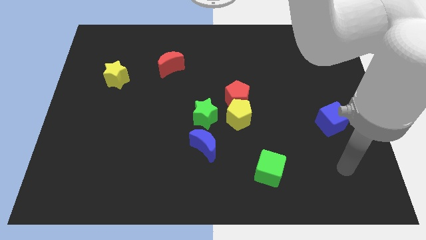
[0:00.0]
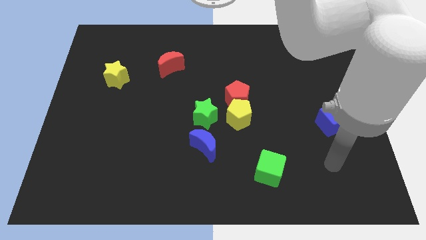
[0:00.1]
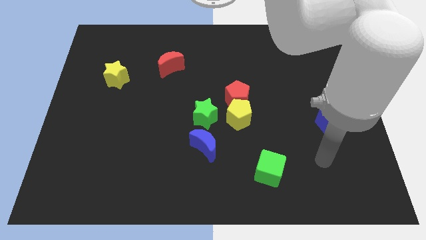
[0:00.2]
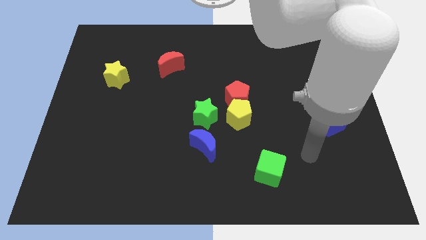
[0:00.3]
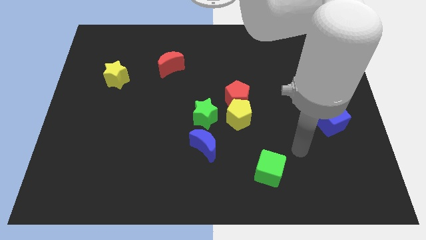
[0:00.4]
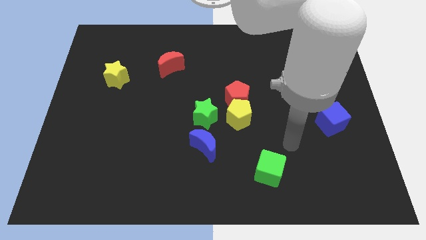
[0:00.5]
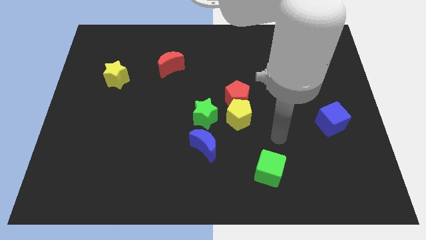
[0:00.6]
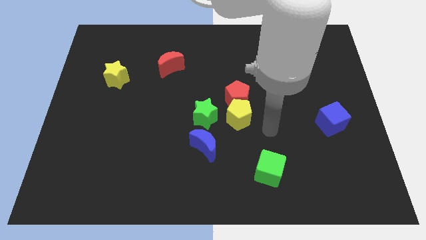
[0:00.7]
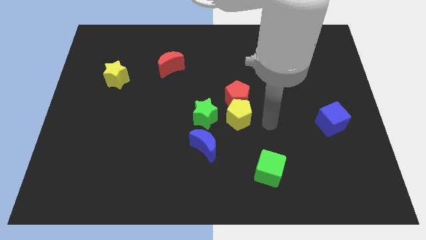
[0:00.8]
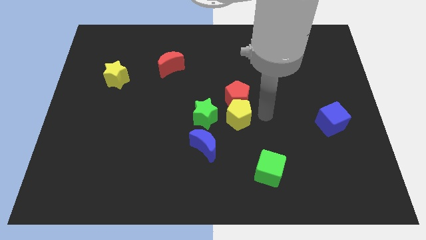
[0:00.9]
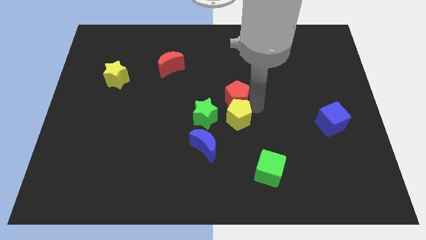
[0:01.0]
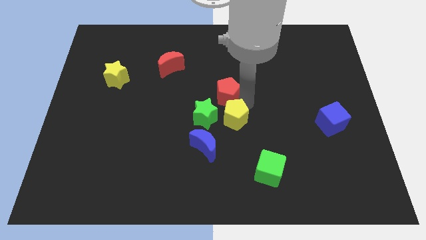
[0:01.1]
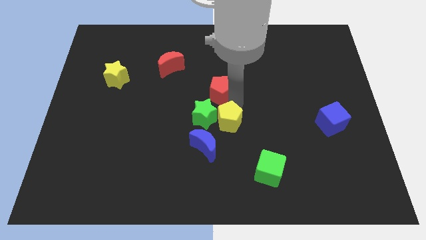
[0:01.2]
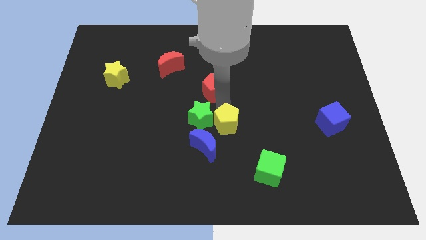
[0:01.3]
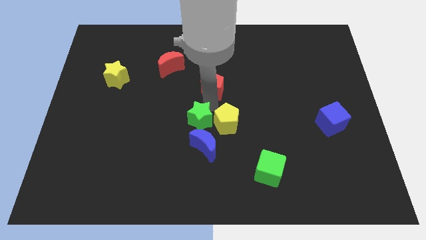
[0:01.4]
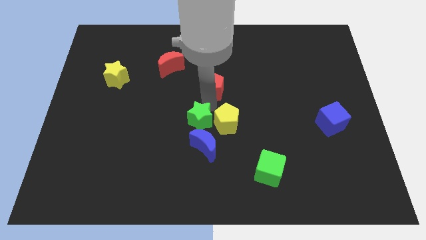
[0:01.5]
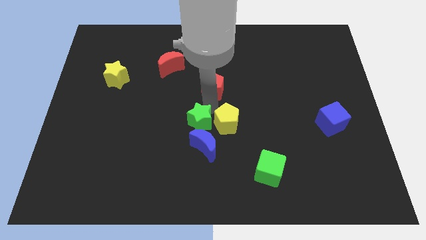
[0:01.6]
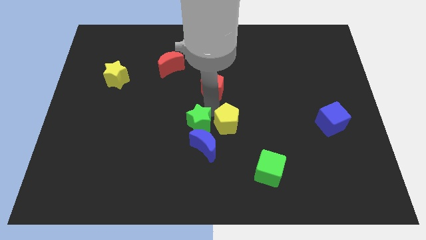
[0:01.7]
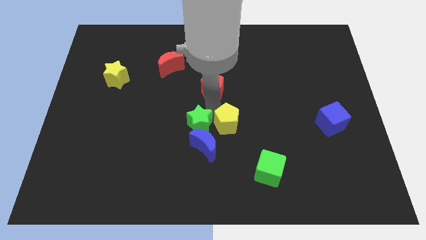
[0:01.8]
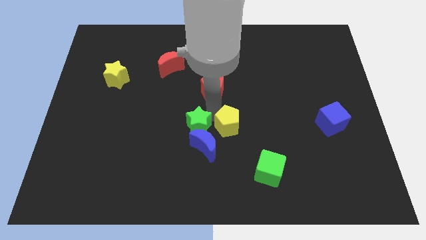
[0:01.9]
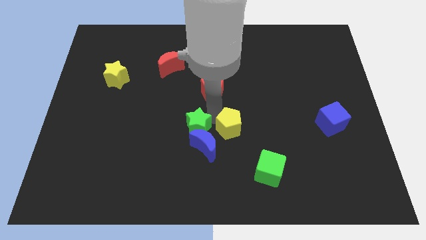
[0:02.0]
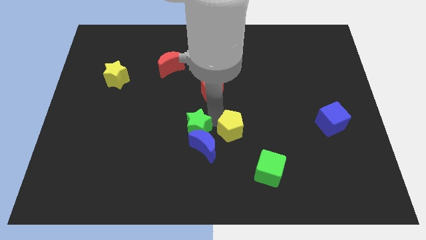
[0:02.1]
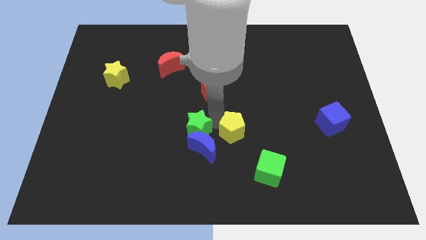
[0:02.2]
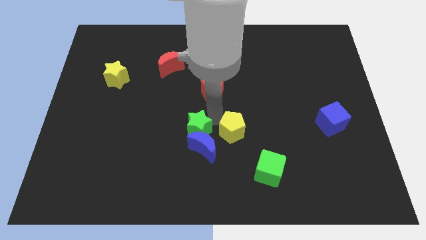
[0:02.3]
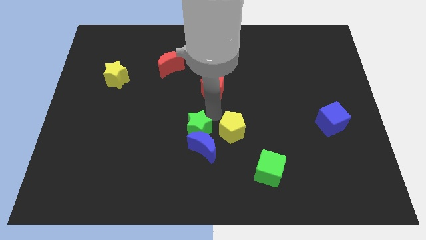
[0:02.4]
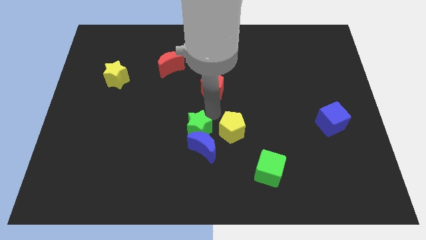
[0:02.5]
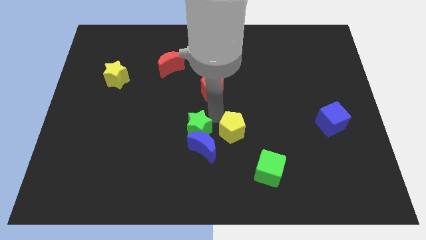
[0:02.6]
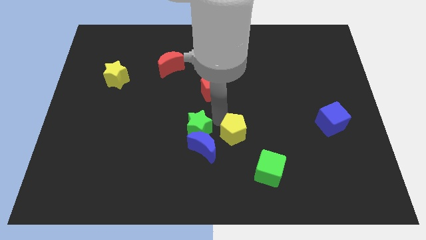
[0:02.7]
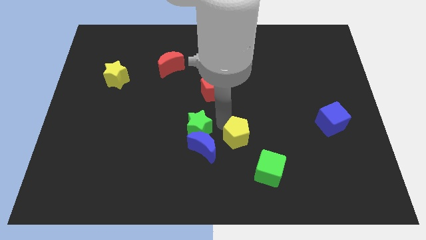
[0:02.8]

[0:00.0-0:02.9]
pull the yellow pentagon apart from the red pentagon and green star

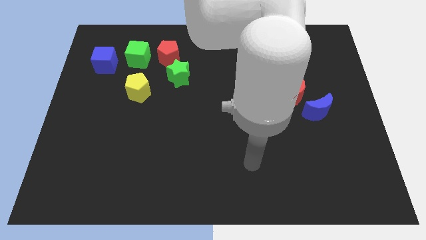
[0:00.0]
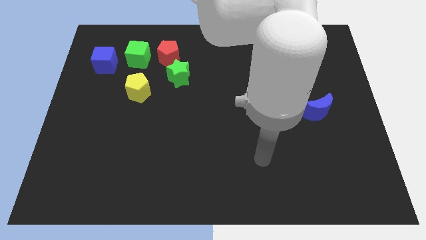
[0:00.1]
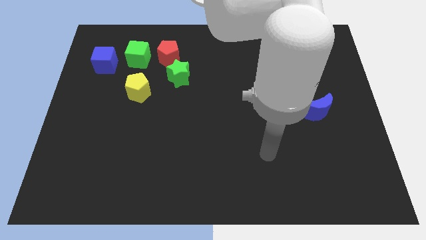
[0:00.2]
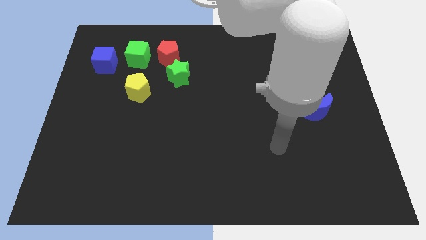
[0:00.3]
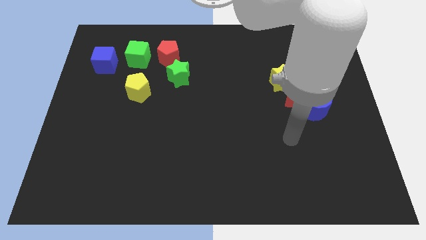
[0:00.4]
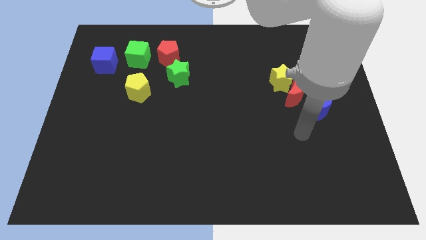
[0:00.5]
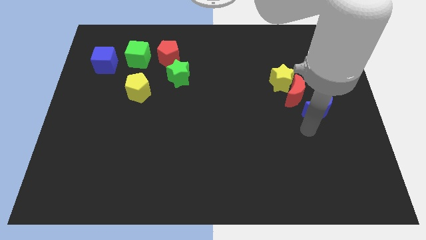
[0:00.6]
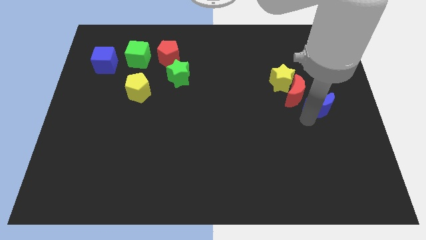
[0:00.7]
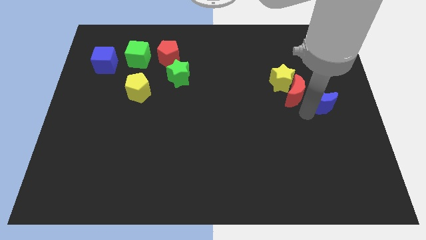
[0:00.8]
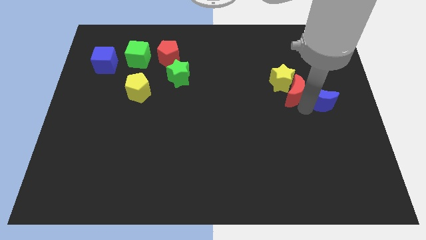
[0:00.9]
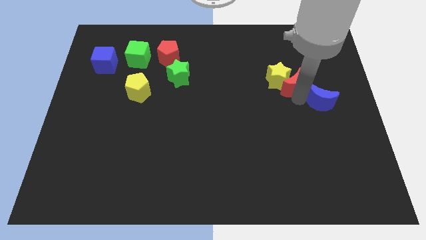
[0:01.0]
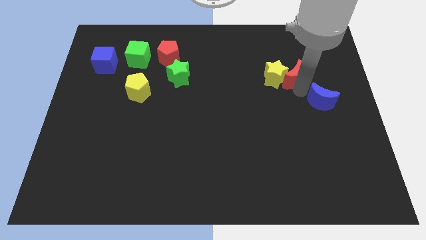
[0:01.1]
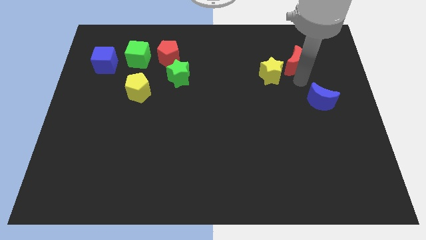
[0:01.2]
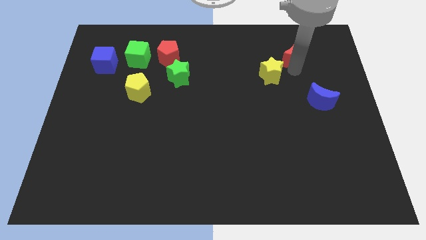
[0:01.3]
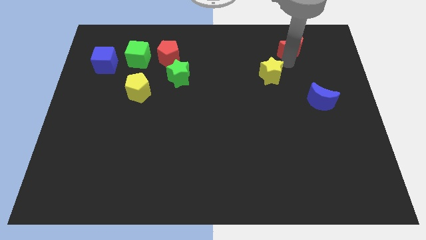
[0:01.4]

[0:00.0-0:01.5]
move the yellow star away from the red moon

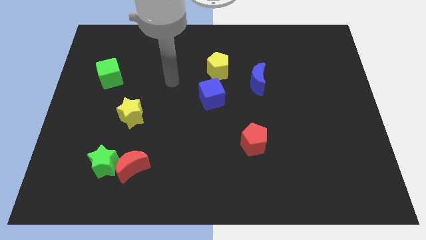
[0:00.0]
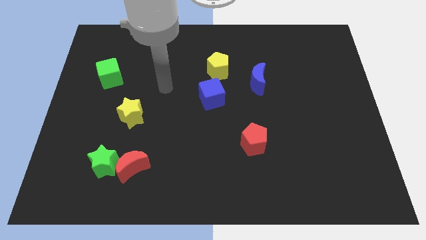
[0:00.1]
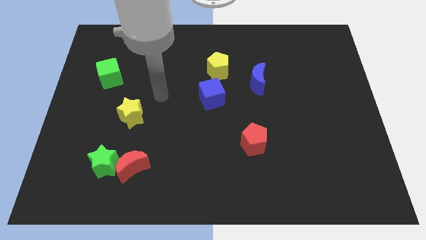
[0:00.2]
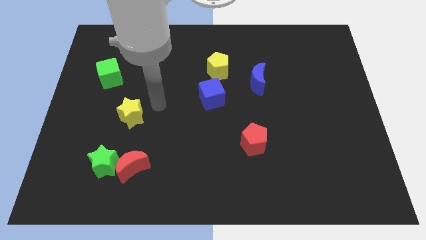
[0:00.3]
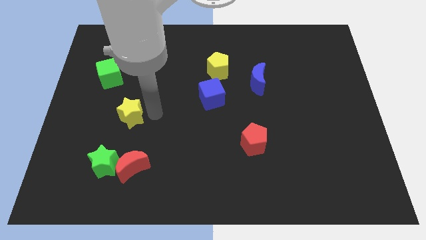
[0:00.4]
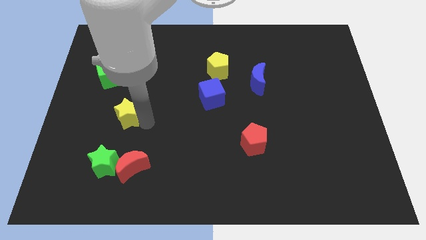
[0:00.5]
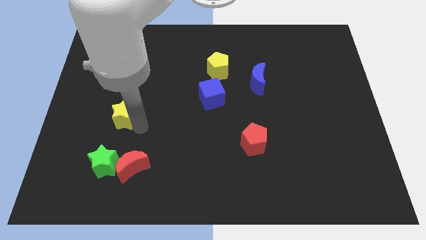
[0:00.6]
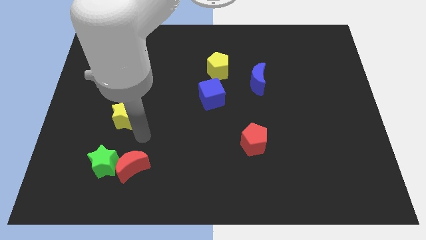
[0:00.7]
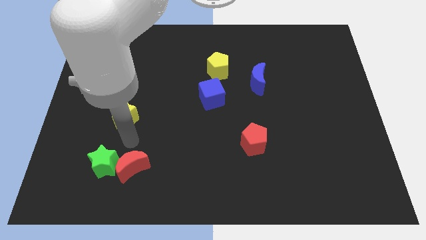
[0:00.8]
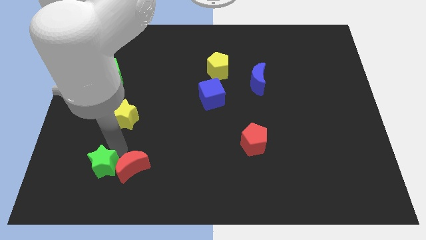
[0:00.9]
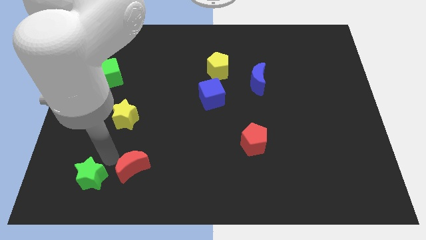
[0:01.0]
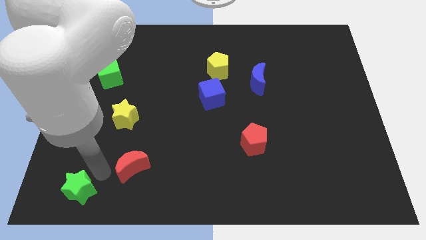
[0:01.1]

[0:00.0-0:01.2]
separate the red moon from the green star

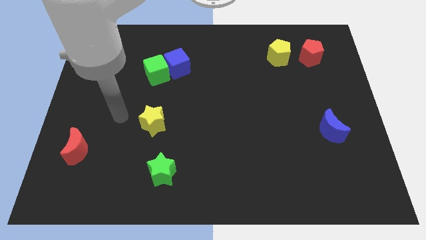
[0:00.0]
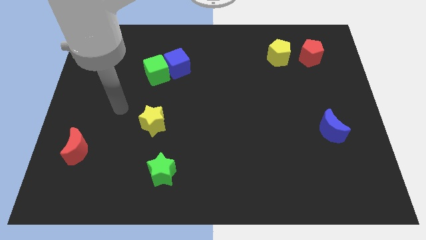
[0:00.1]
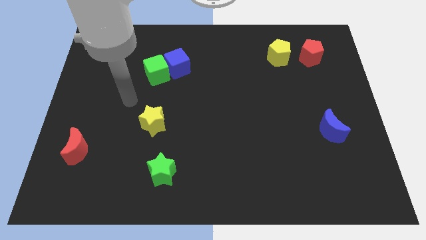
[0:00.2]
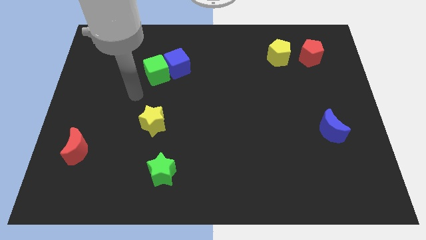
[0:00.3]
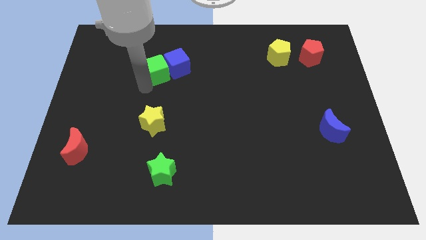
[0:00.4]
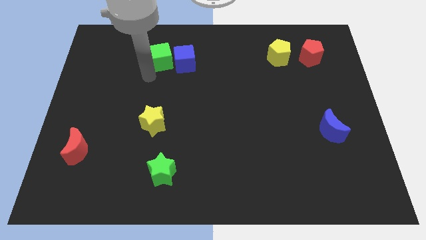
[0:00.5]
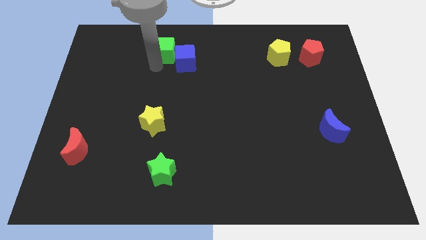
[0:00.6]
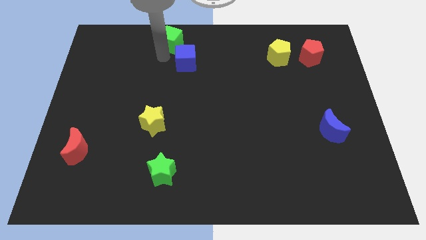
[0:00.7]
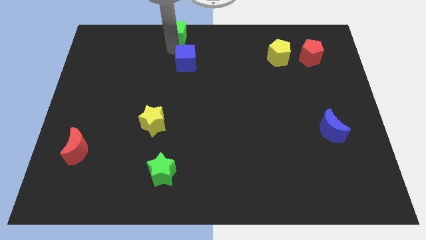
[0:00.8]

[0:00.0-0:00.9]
pull the blue cube apart from the green cube

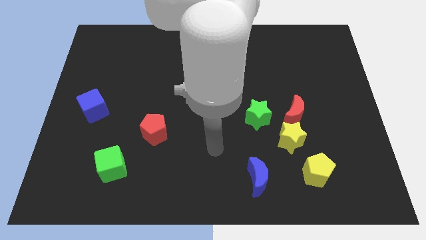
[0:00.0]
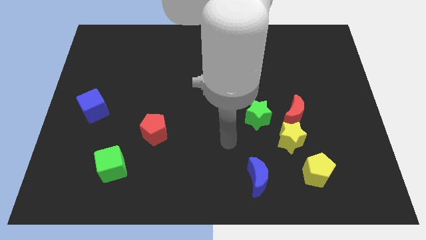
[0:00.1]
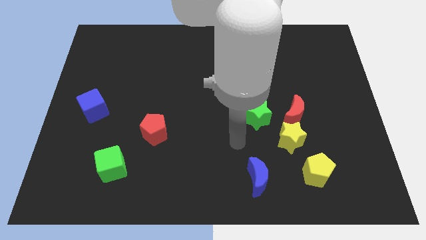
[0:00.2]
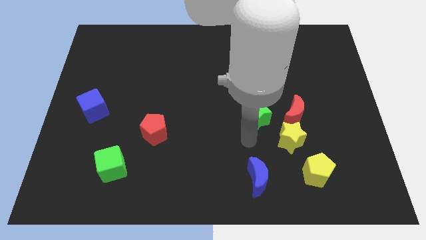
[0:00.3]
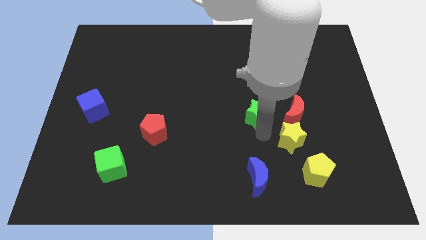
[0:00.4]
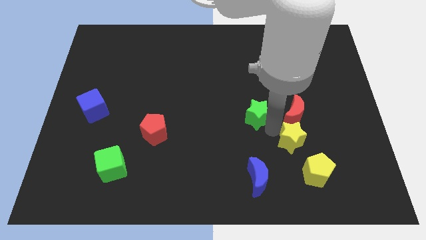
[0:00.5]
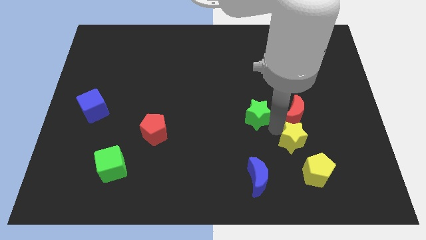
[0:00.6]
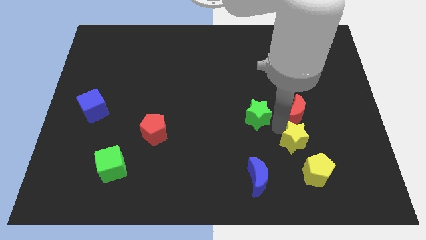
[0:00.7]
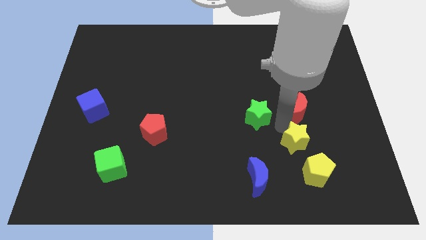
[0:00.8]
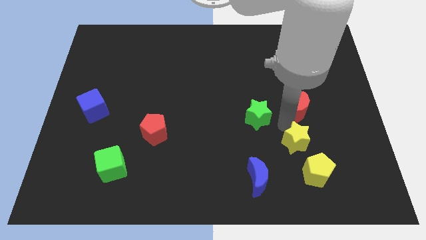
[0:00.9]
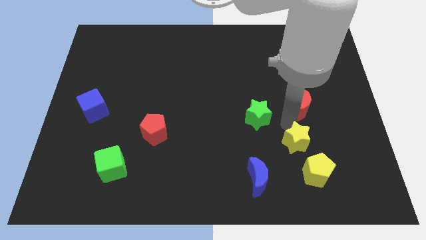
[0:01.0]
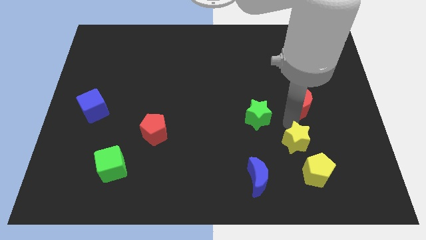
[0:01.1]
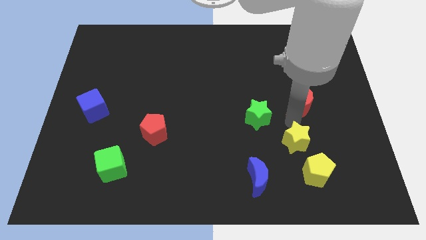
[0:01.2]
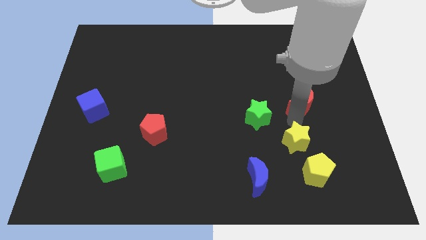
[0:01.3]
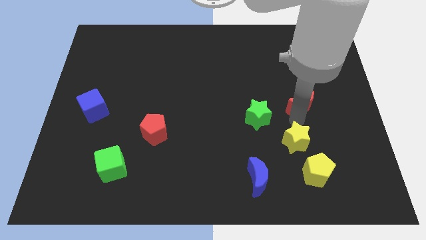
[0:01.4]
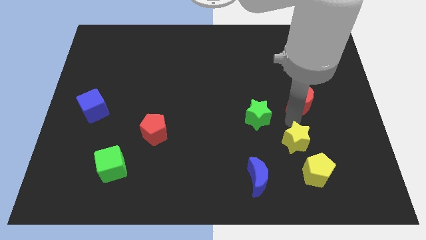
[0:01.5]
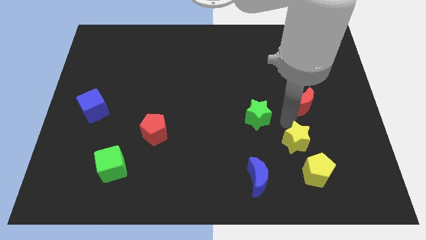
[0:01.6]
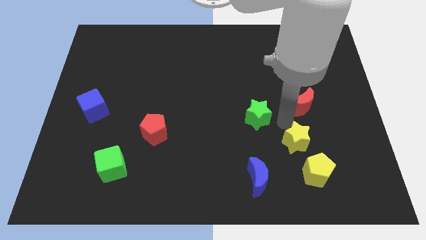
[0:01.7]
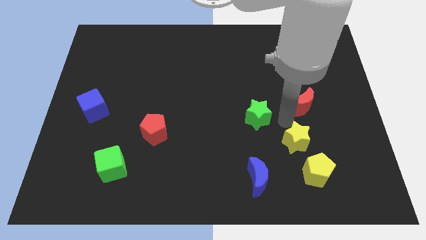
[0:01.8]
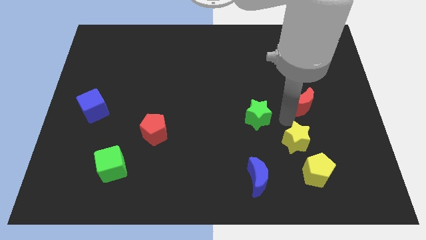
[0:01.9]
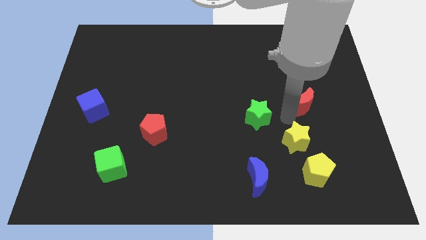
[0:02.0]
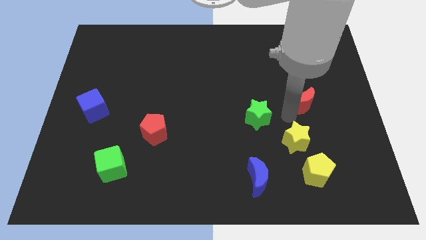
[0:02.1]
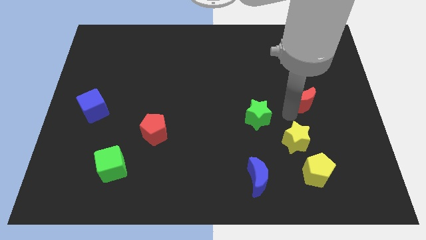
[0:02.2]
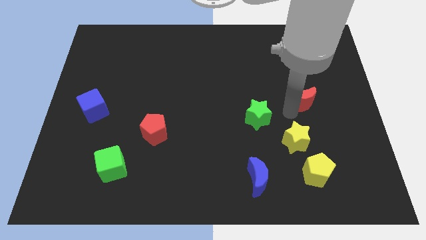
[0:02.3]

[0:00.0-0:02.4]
pull the red moon apart from the yellow star and green star

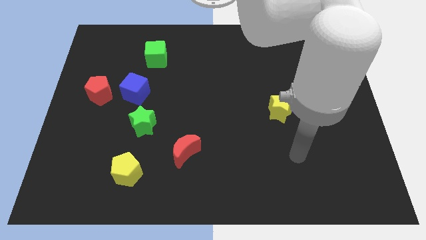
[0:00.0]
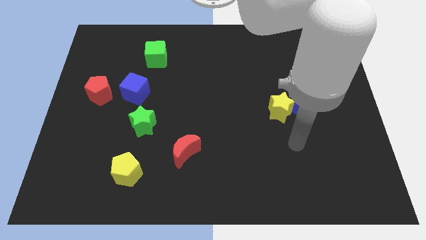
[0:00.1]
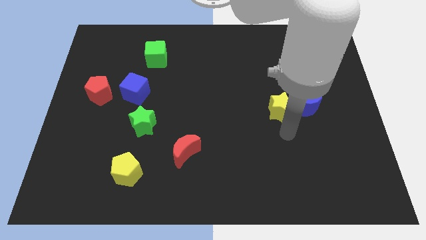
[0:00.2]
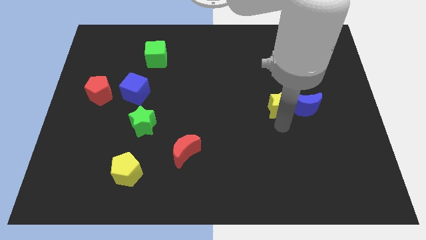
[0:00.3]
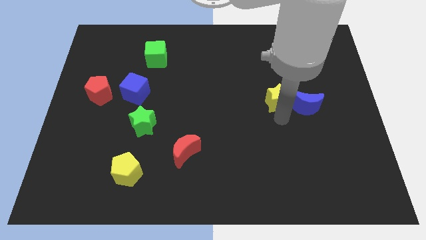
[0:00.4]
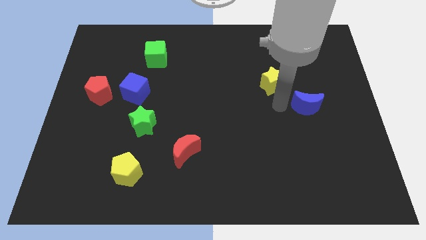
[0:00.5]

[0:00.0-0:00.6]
pull the blue moon apart from the yellow star
